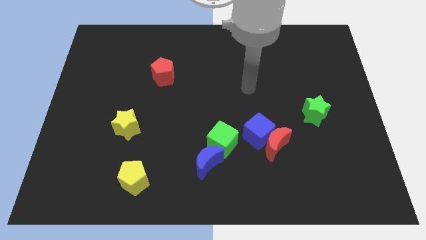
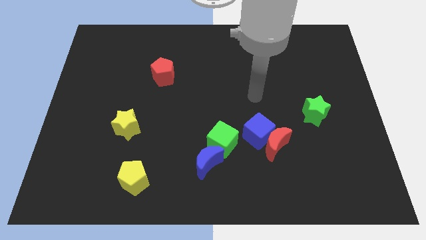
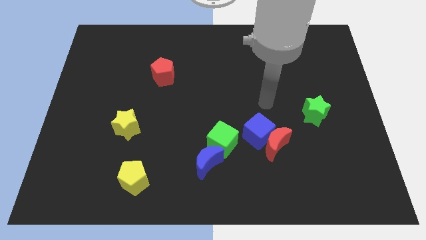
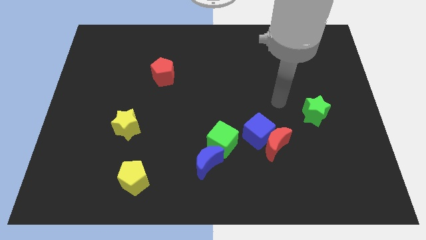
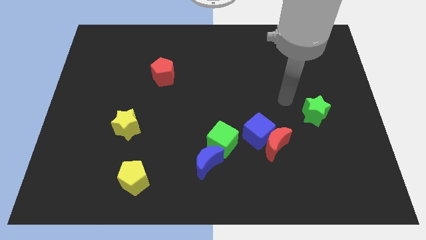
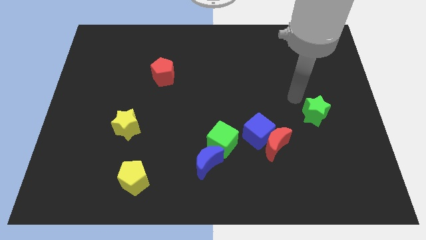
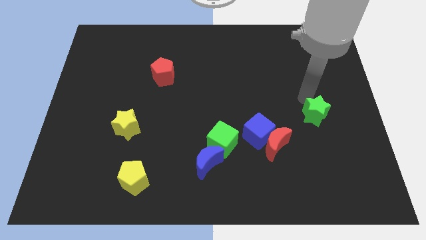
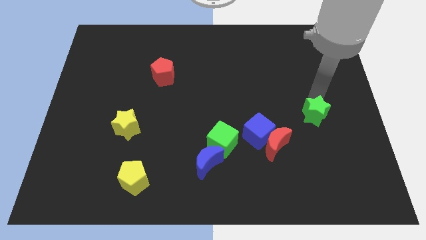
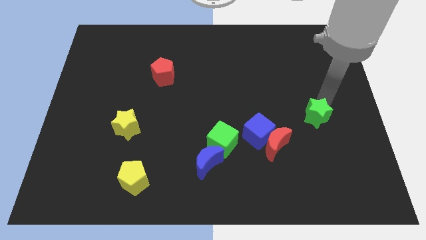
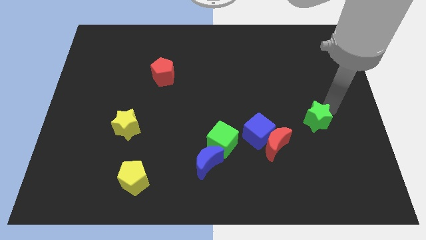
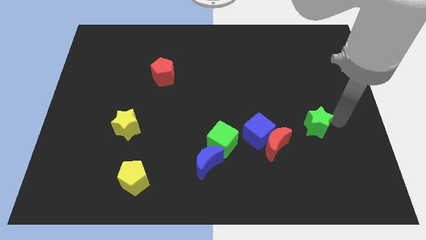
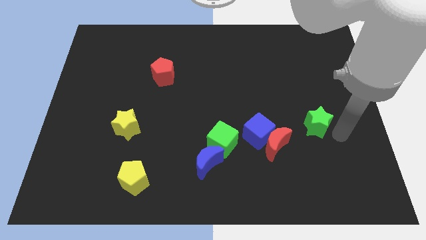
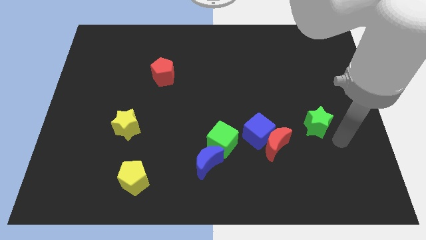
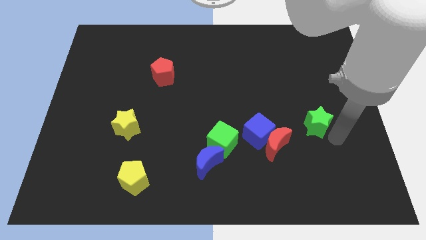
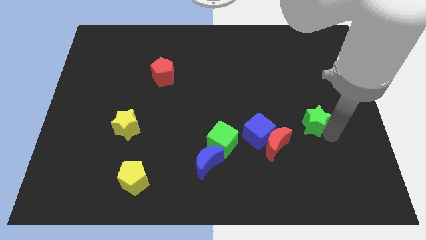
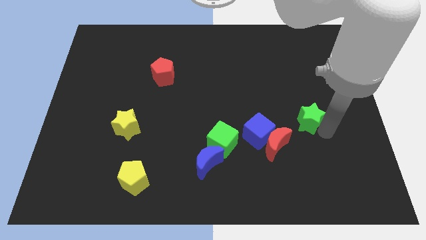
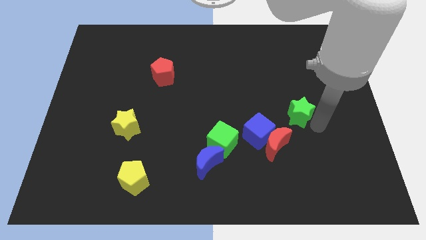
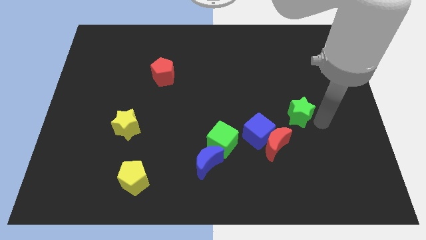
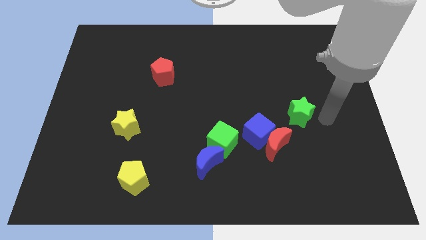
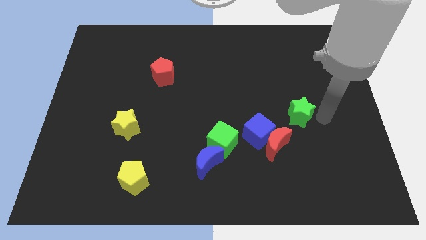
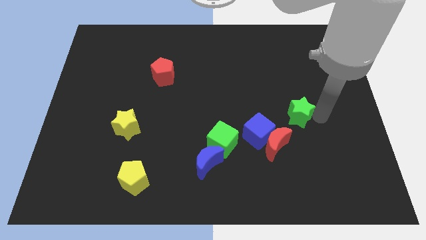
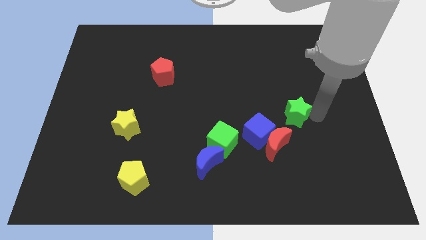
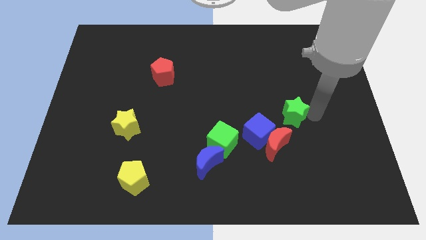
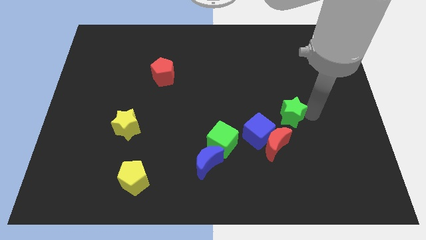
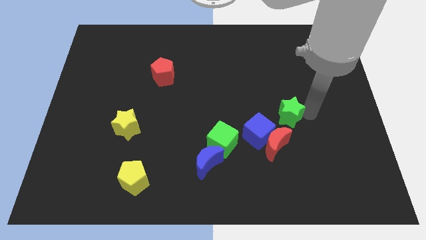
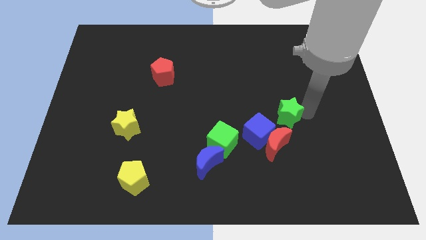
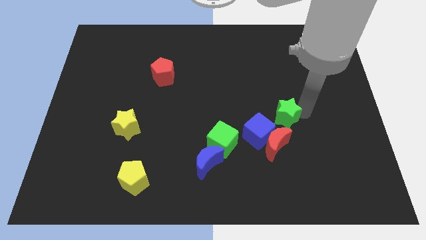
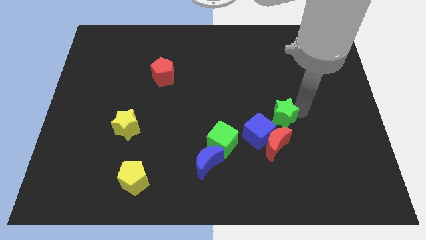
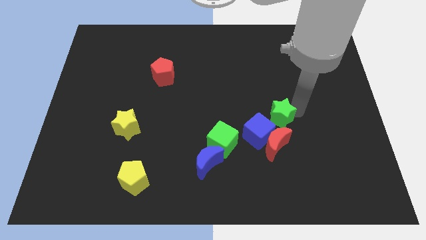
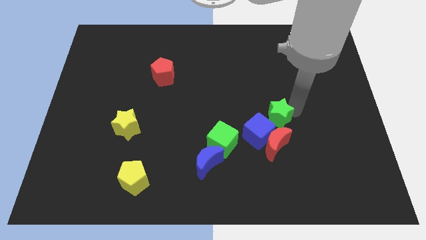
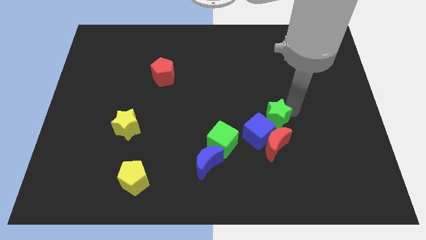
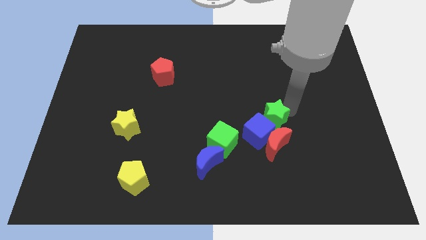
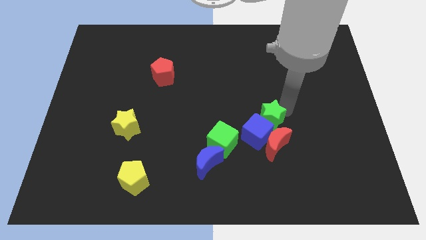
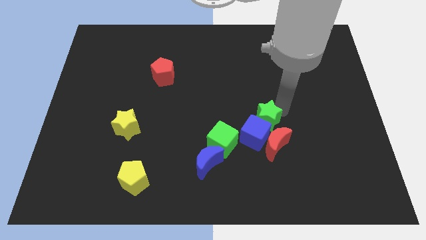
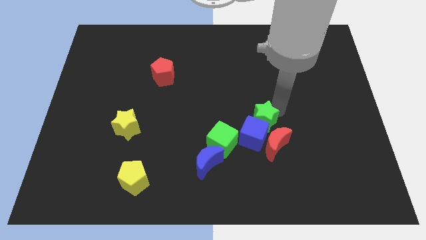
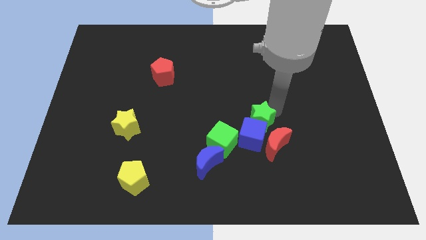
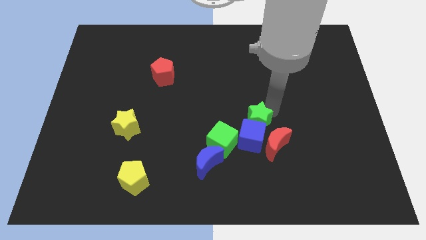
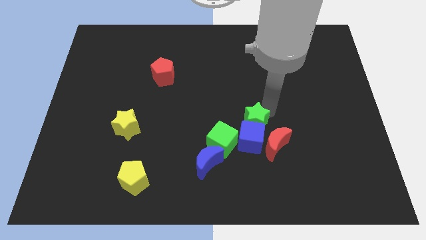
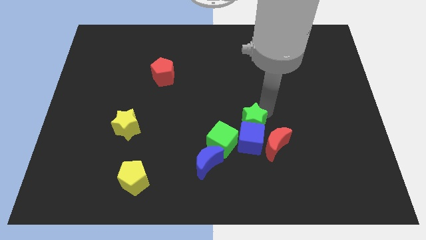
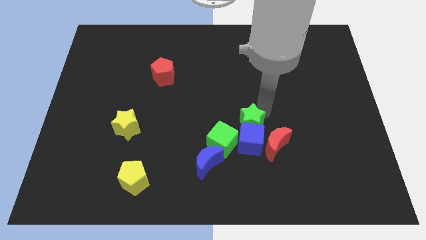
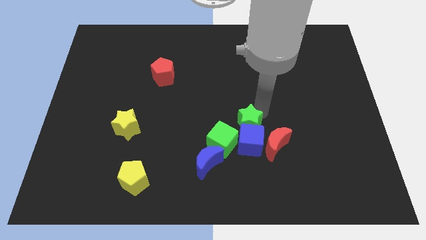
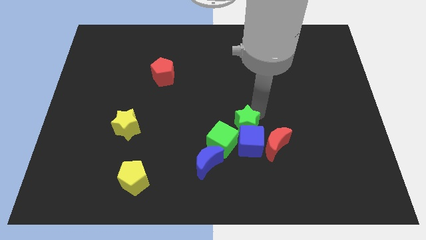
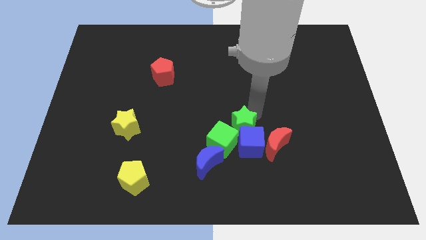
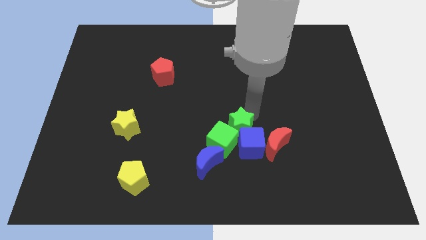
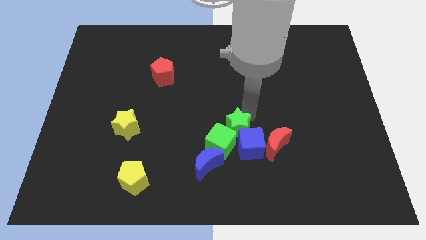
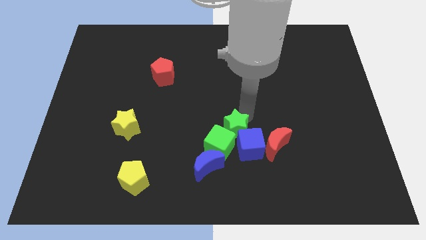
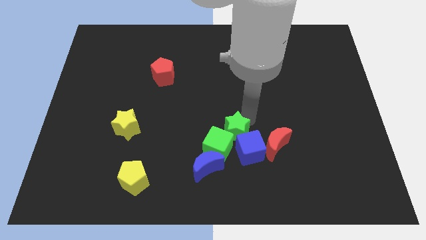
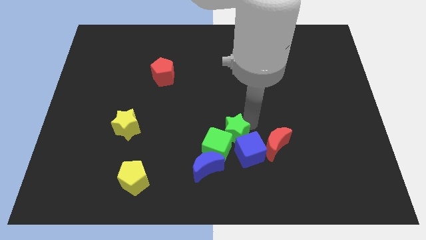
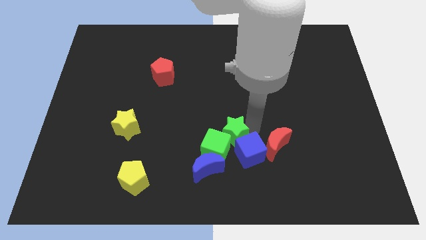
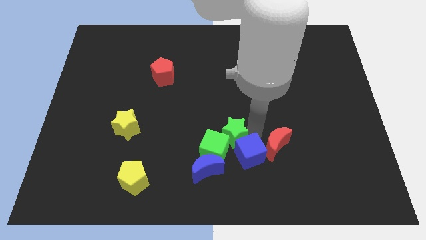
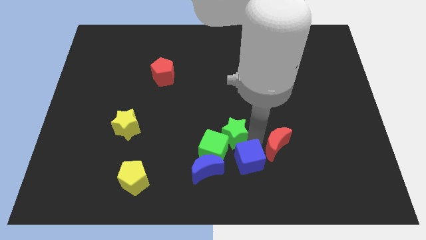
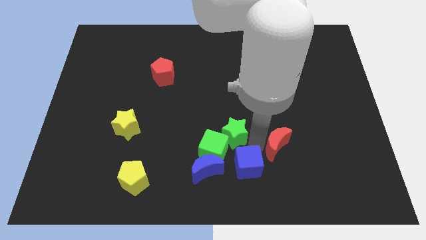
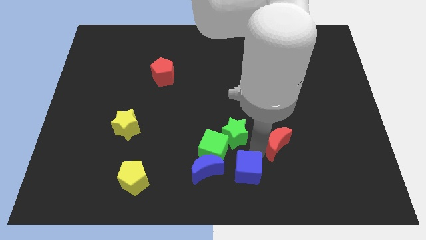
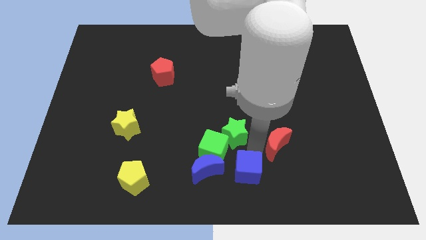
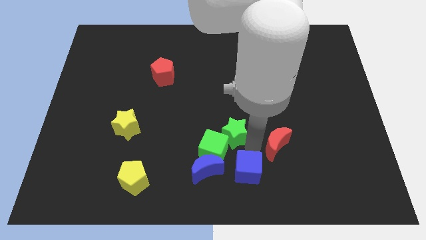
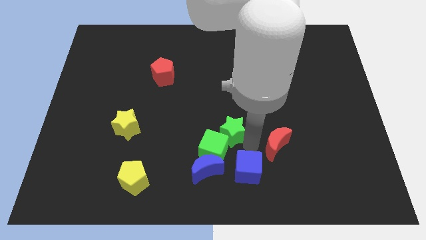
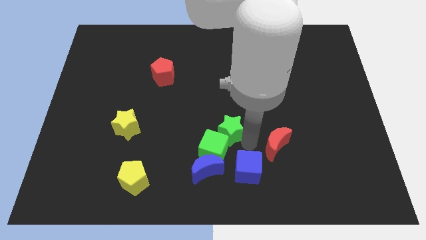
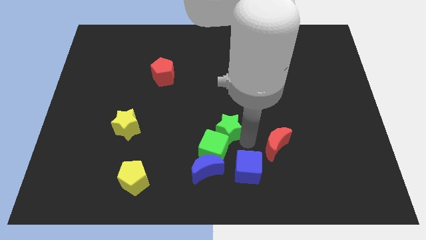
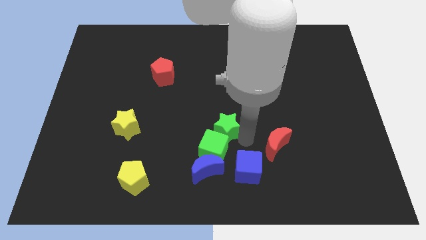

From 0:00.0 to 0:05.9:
slide the green star to the left

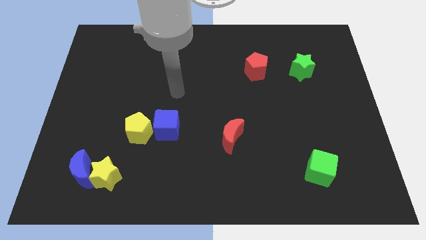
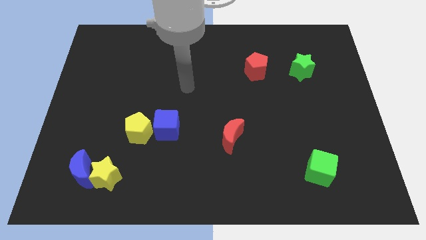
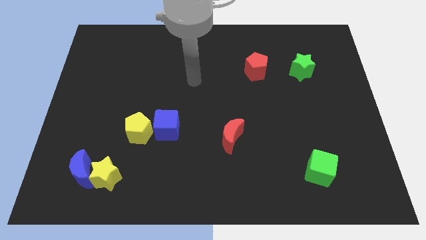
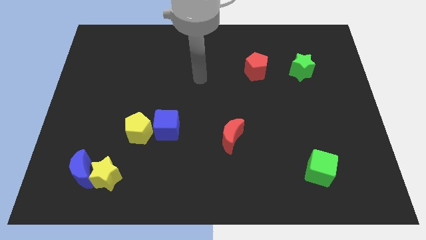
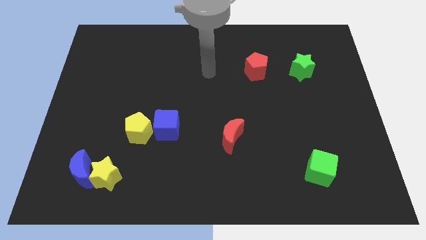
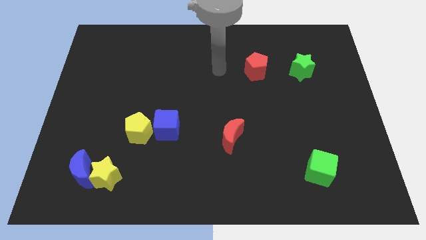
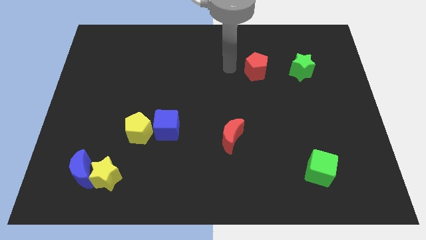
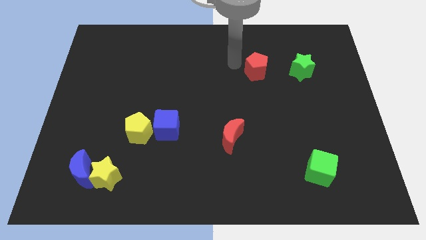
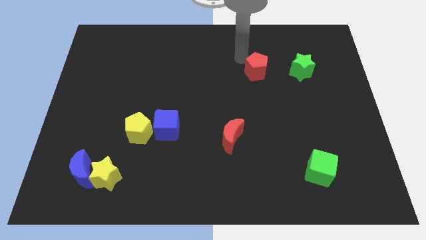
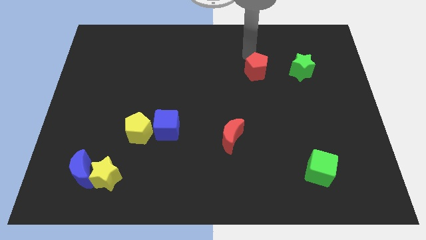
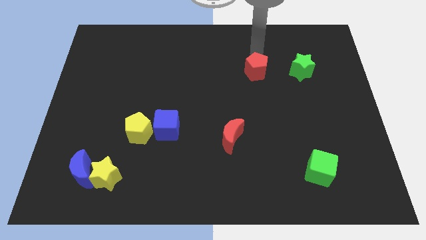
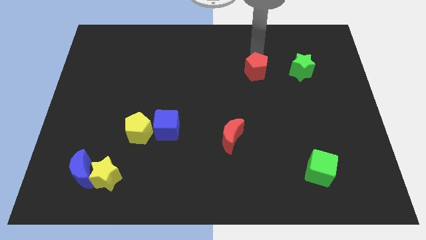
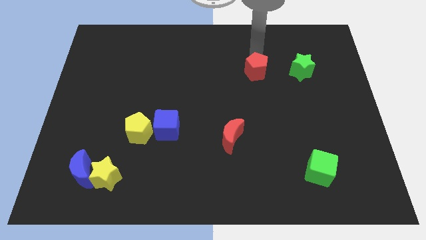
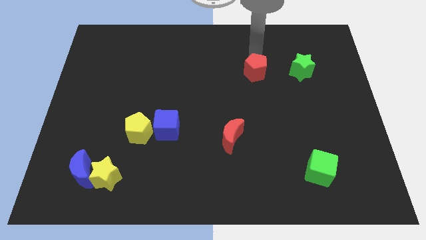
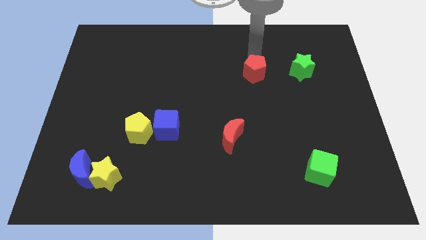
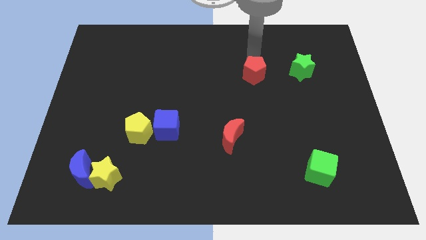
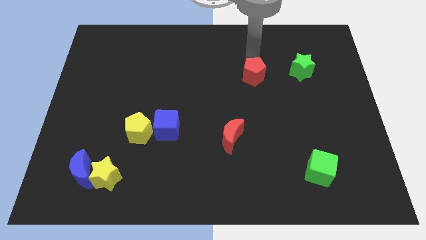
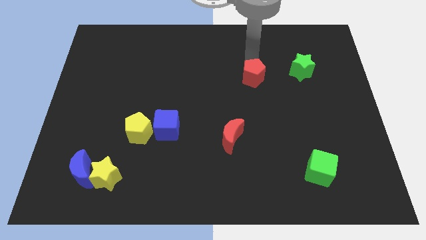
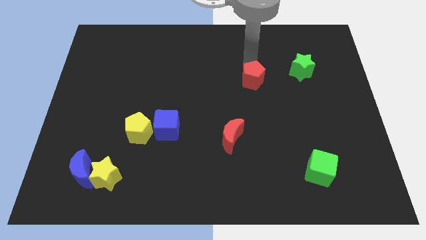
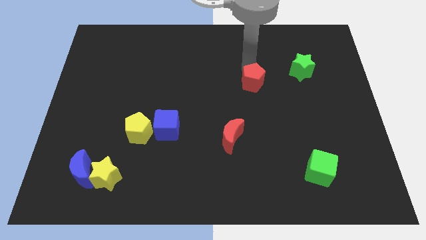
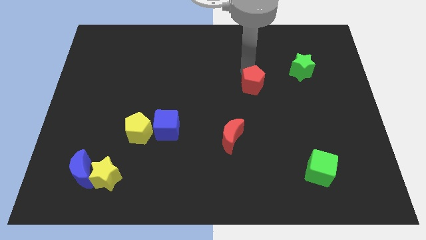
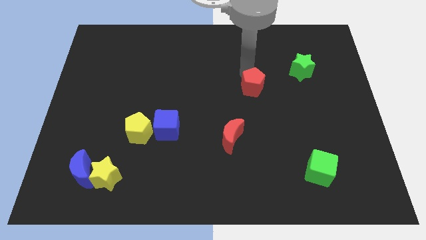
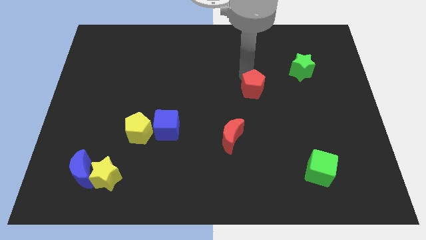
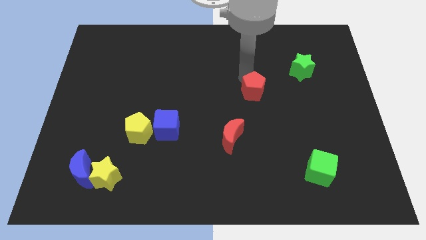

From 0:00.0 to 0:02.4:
slide the red pentagon a bit downwards
